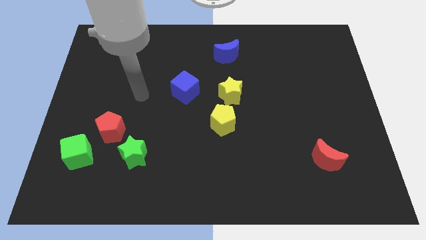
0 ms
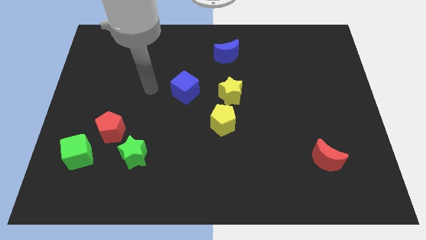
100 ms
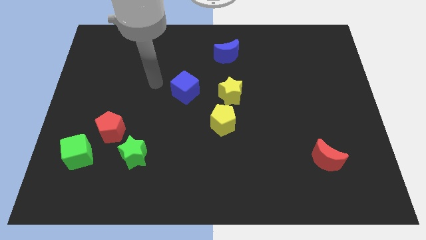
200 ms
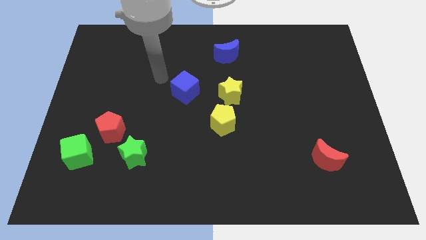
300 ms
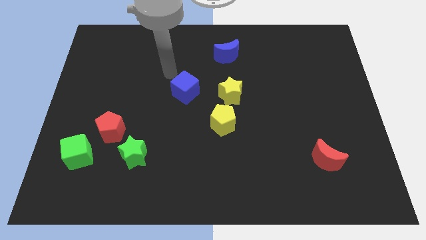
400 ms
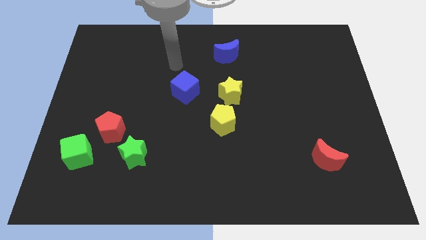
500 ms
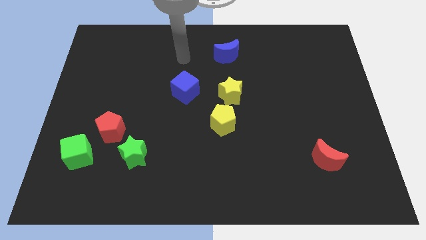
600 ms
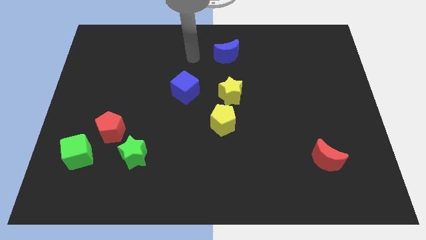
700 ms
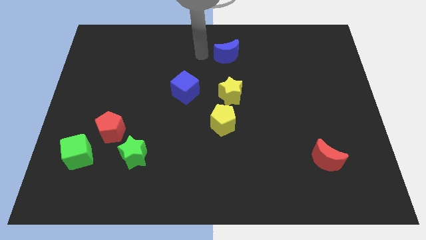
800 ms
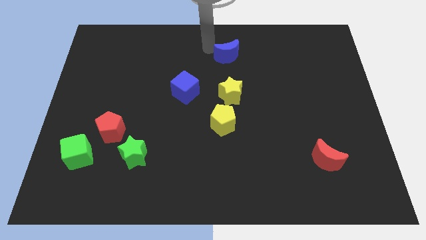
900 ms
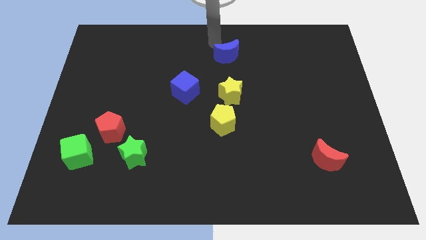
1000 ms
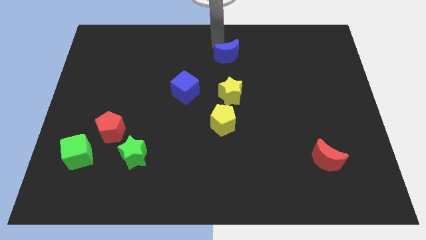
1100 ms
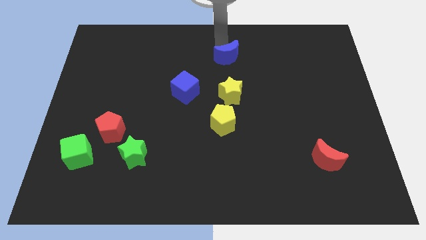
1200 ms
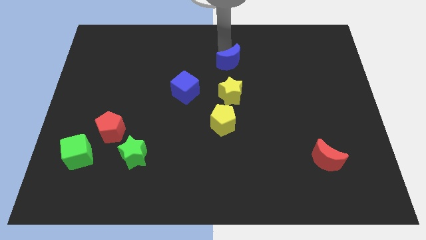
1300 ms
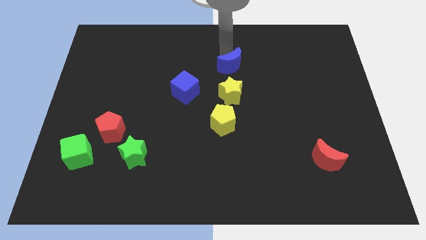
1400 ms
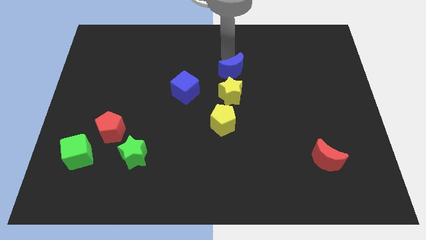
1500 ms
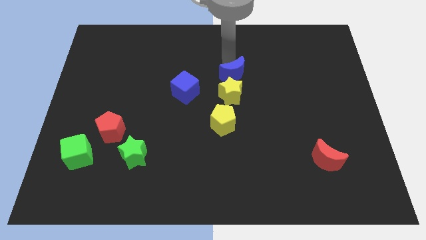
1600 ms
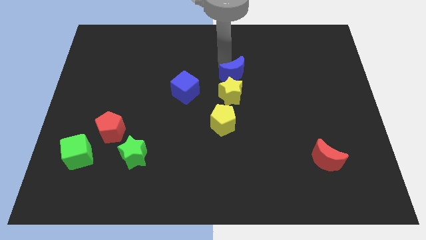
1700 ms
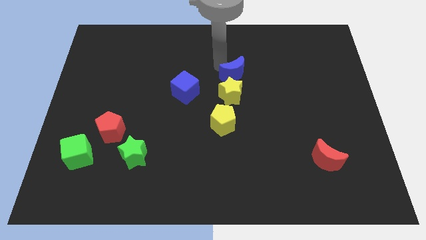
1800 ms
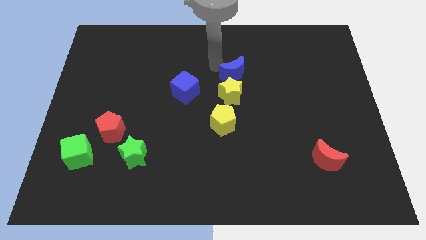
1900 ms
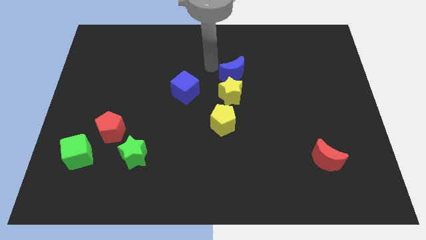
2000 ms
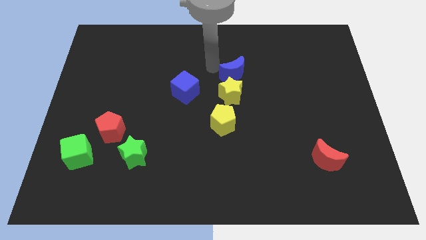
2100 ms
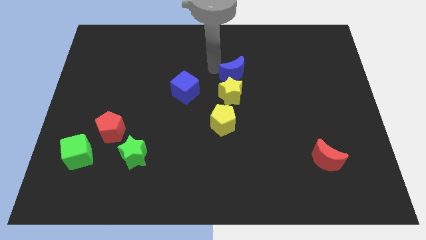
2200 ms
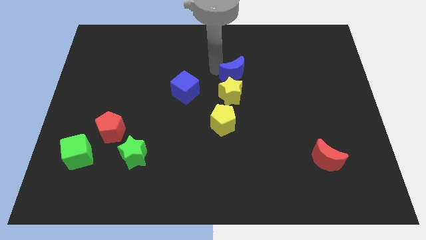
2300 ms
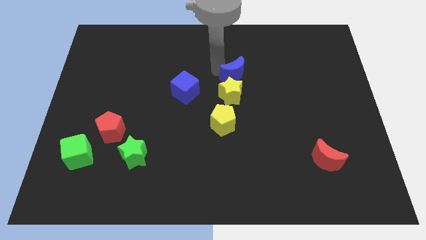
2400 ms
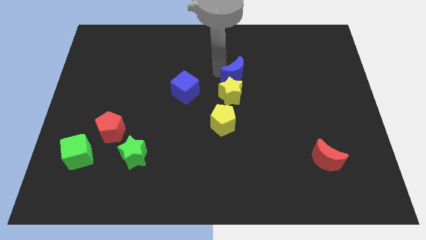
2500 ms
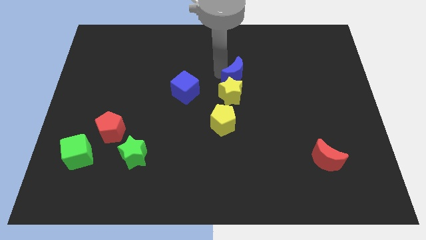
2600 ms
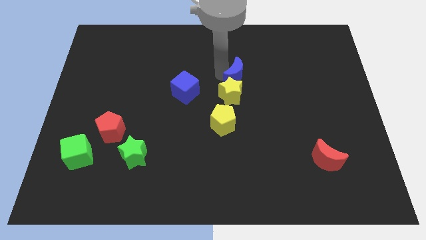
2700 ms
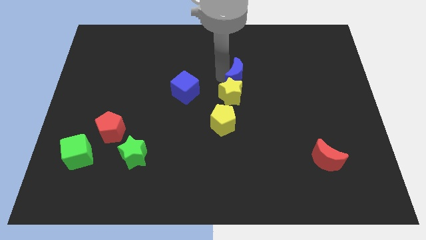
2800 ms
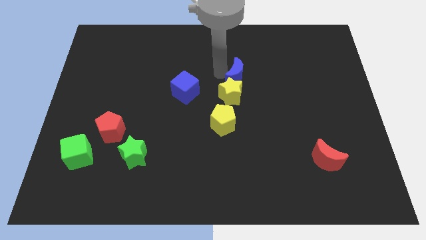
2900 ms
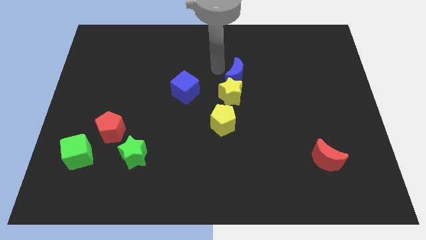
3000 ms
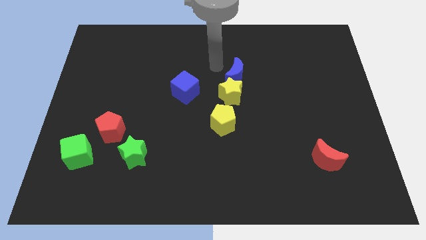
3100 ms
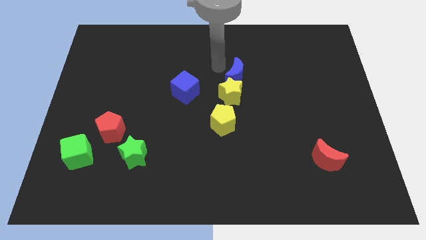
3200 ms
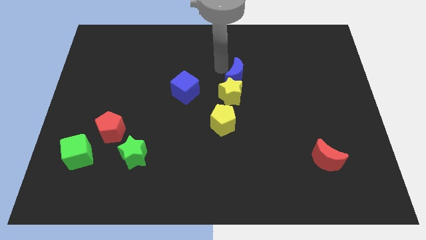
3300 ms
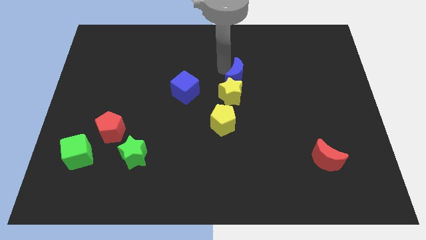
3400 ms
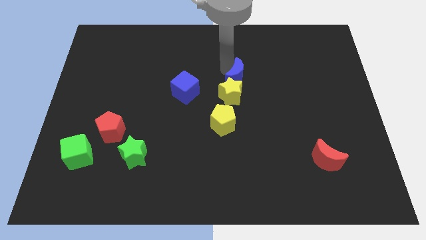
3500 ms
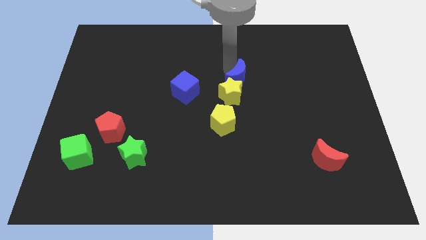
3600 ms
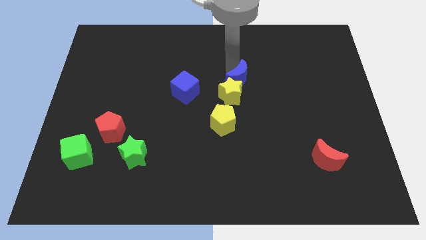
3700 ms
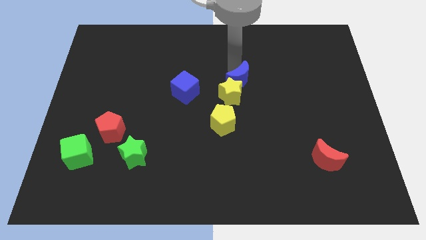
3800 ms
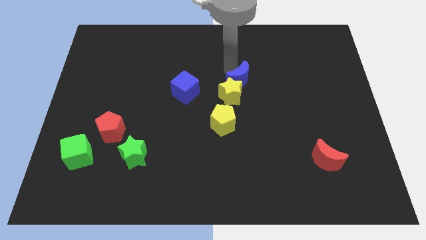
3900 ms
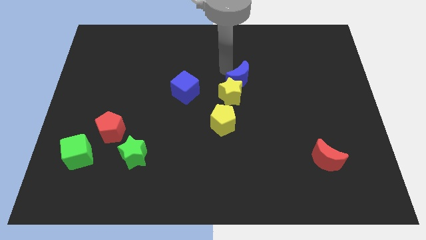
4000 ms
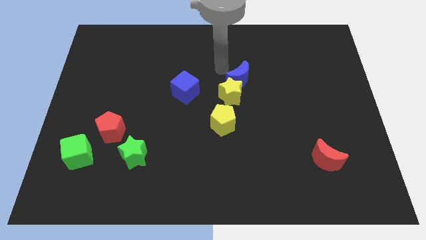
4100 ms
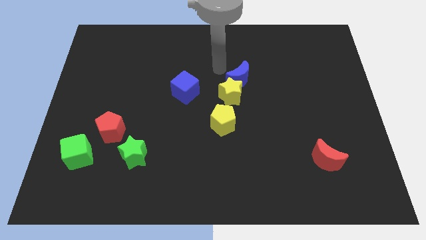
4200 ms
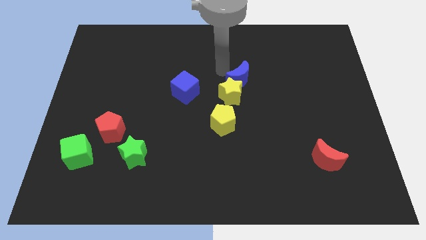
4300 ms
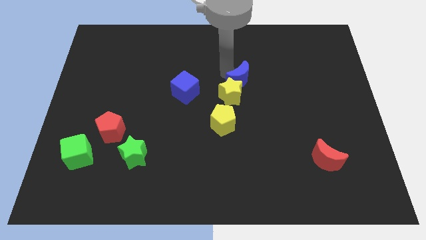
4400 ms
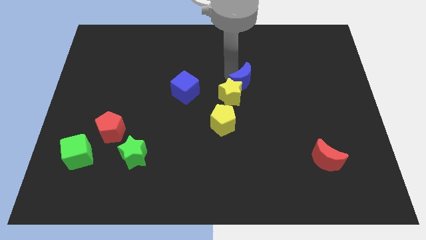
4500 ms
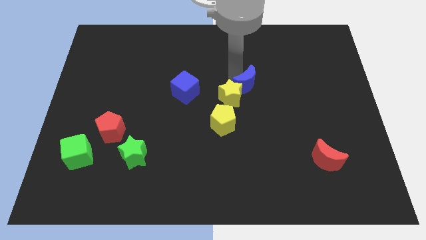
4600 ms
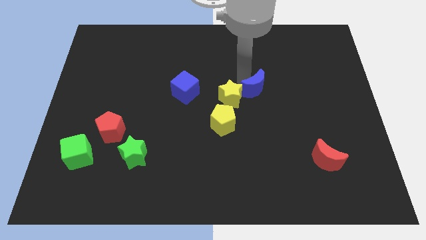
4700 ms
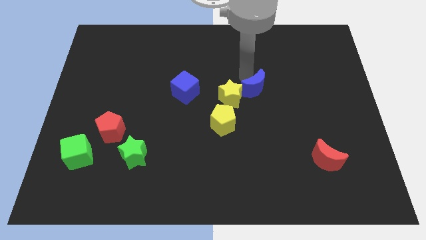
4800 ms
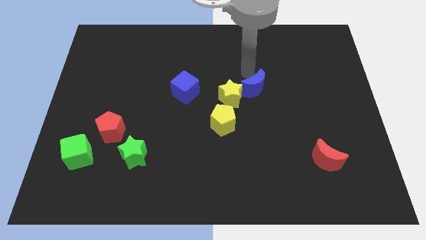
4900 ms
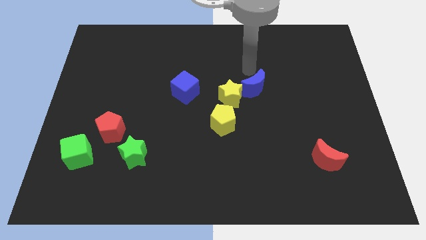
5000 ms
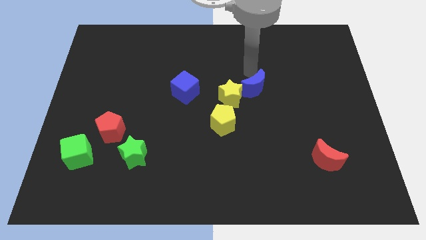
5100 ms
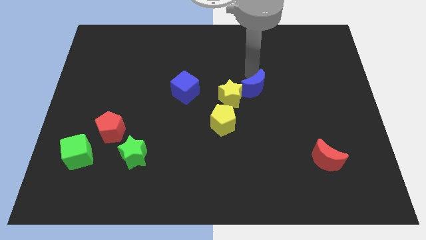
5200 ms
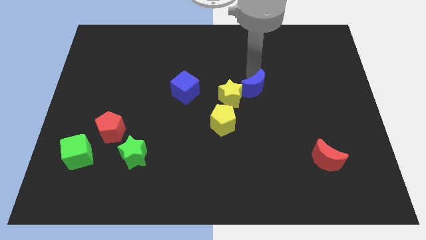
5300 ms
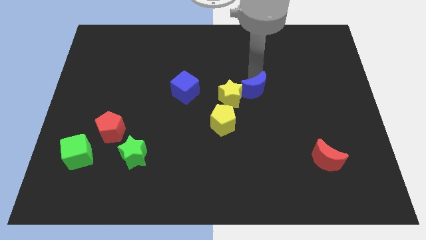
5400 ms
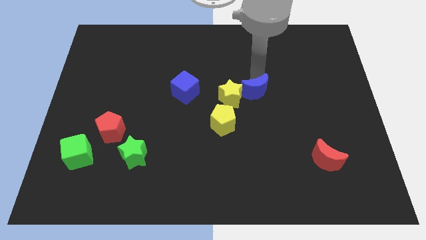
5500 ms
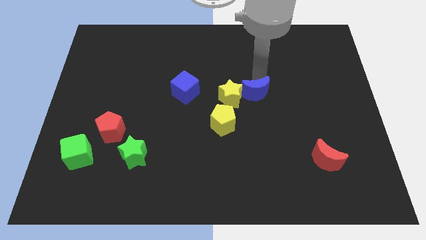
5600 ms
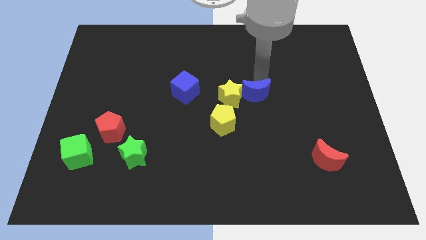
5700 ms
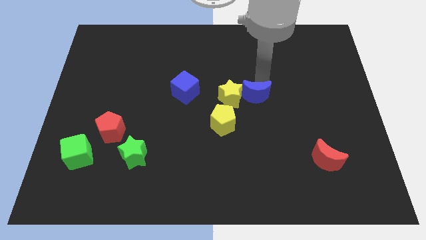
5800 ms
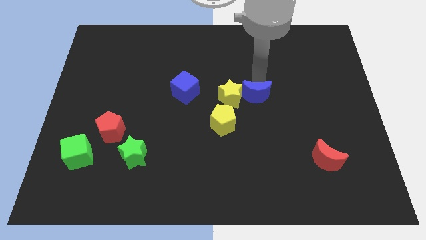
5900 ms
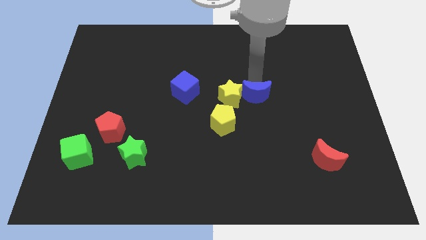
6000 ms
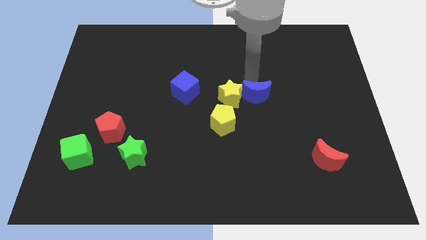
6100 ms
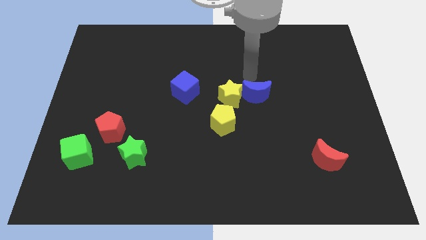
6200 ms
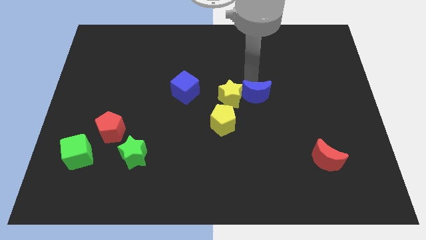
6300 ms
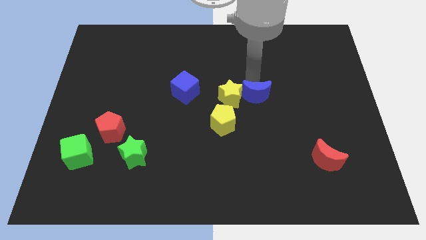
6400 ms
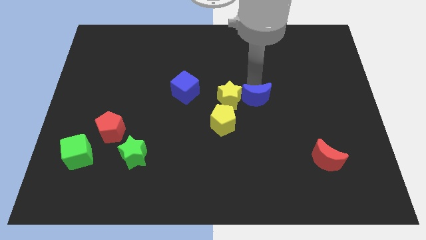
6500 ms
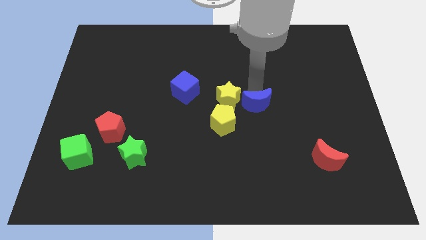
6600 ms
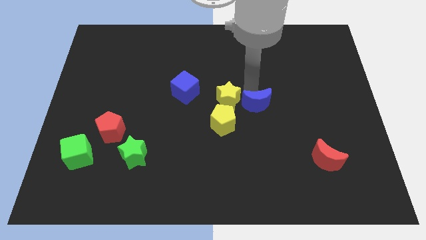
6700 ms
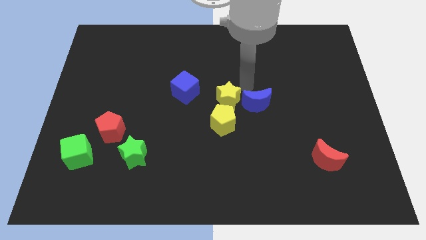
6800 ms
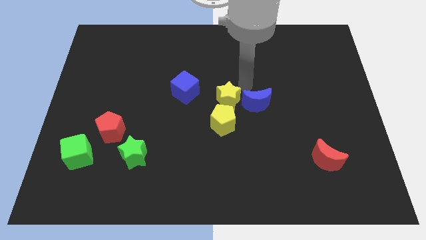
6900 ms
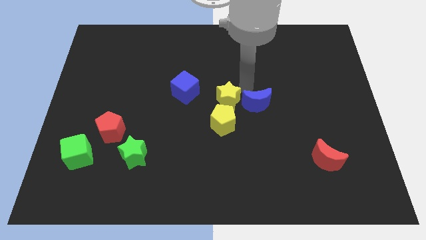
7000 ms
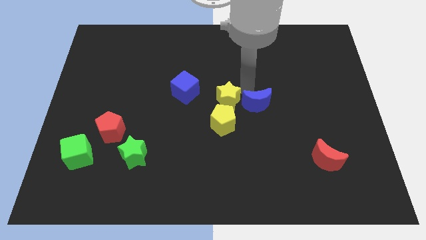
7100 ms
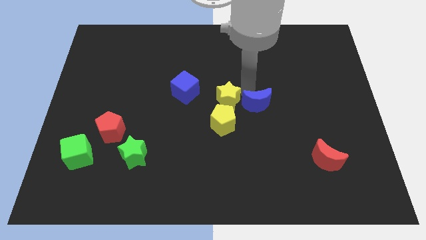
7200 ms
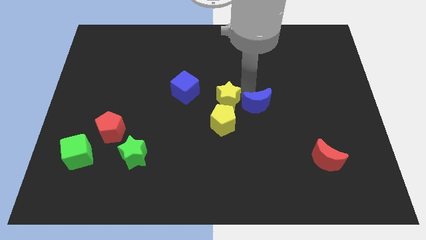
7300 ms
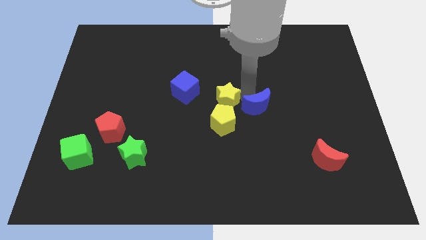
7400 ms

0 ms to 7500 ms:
slide the blue moon to the right side of the yellow pentagon

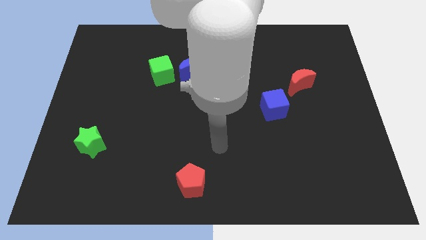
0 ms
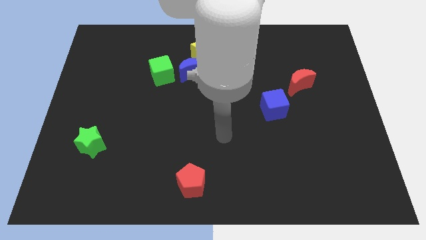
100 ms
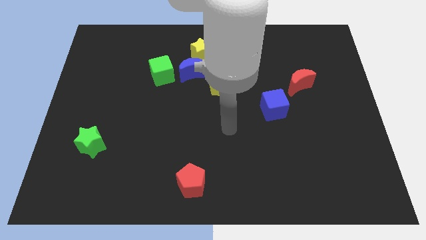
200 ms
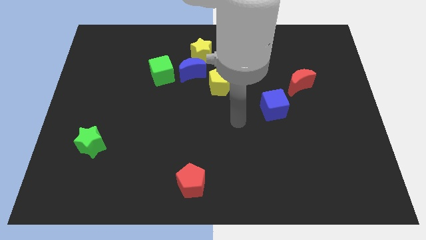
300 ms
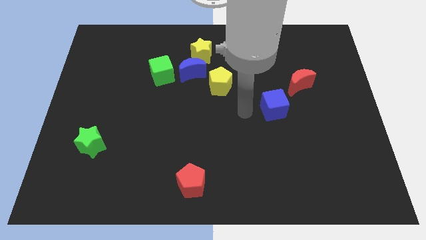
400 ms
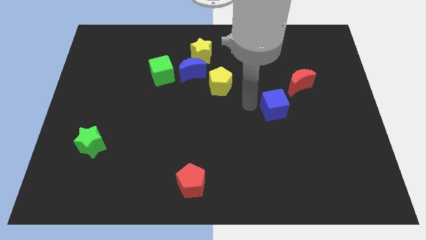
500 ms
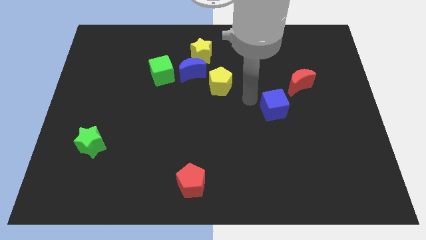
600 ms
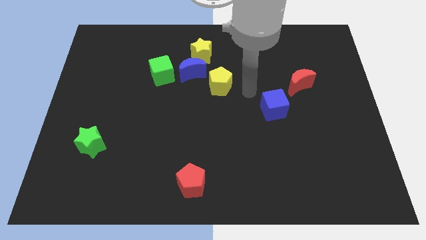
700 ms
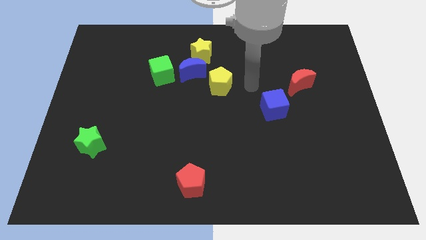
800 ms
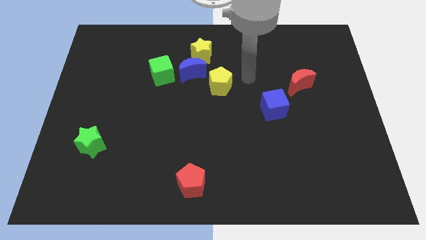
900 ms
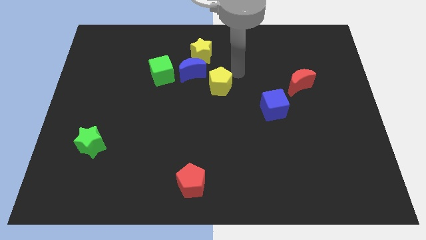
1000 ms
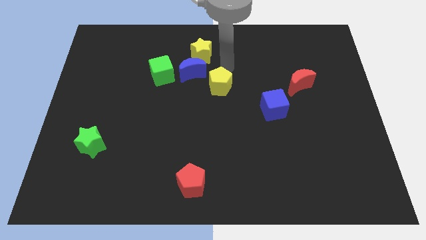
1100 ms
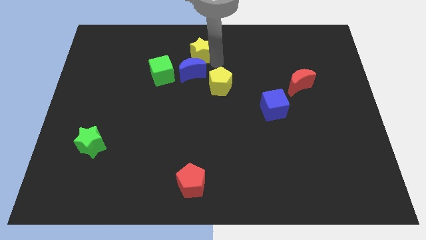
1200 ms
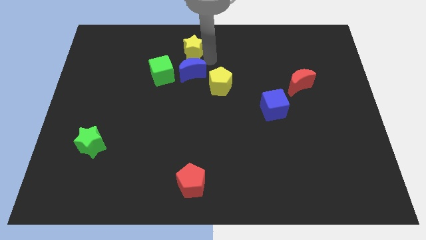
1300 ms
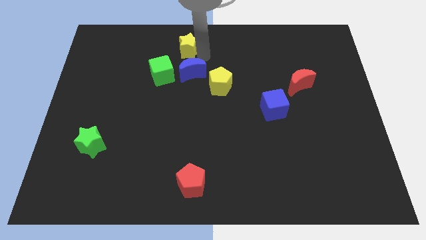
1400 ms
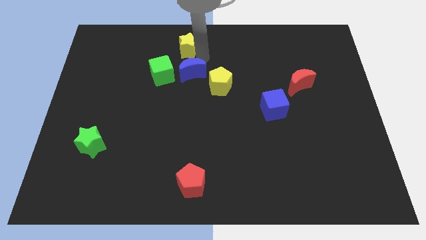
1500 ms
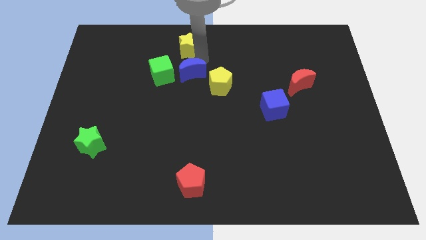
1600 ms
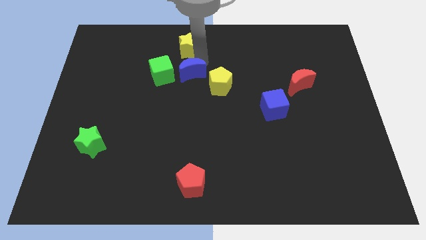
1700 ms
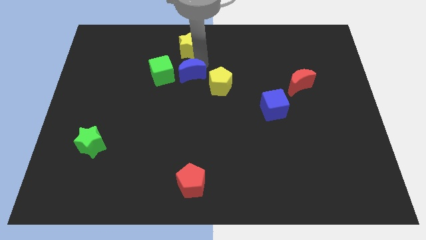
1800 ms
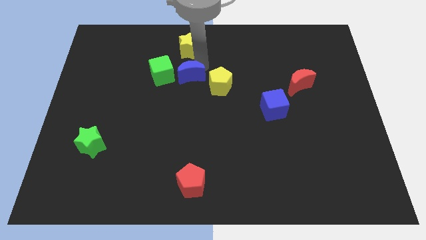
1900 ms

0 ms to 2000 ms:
slide the blue moon diagonally down and to the right of the green cube
